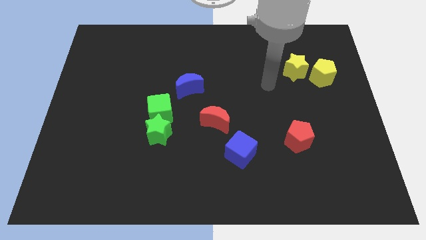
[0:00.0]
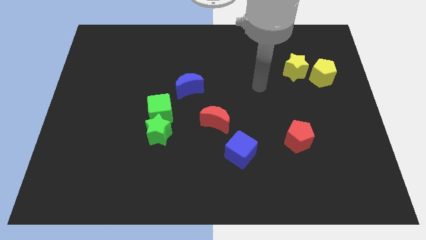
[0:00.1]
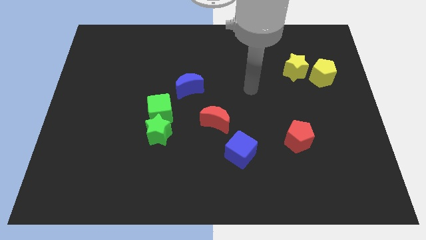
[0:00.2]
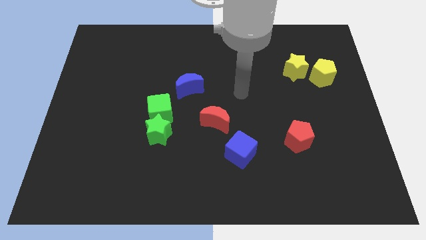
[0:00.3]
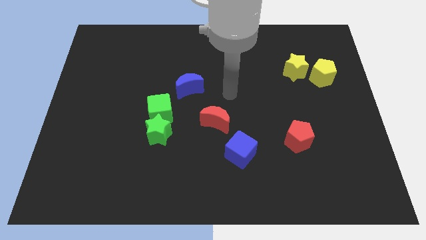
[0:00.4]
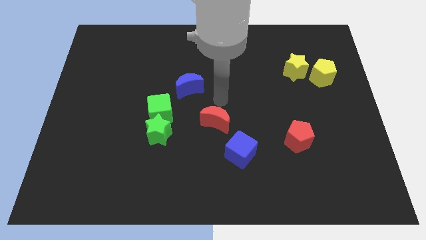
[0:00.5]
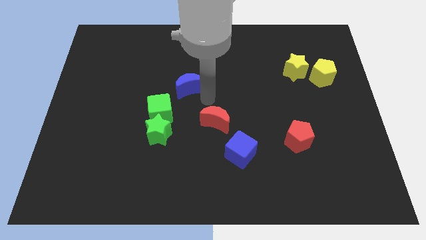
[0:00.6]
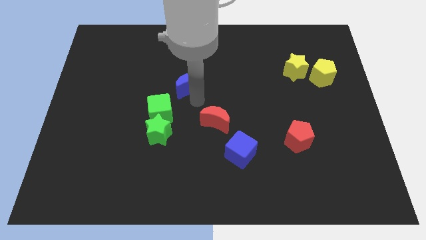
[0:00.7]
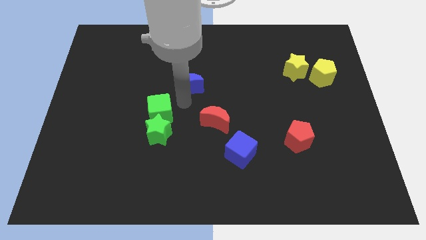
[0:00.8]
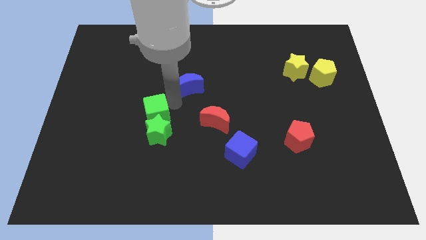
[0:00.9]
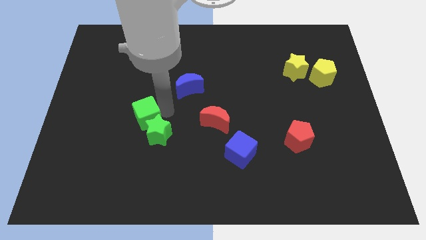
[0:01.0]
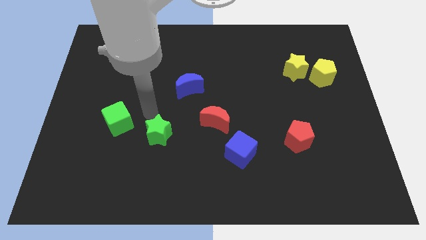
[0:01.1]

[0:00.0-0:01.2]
move the green star away from the green cube

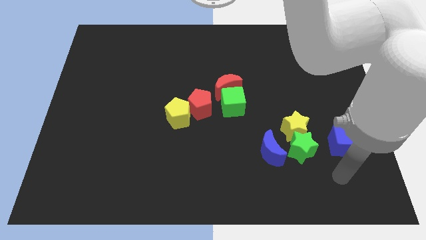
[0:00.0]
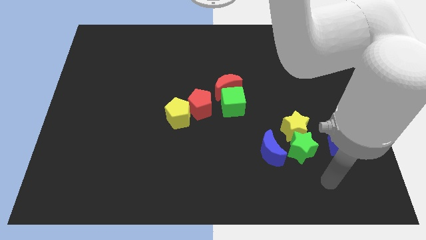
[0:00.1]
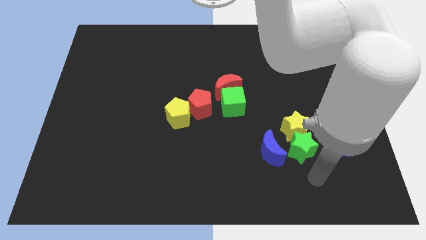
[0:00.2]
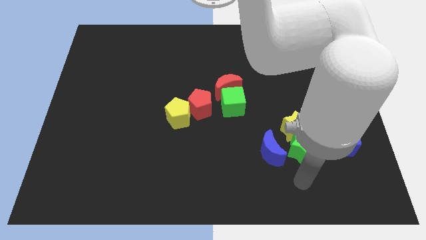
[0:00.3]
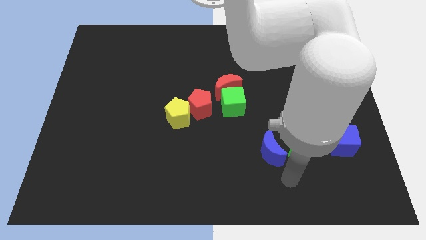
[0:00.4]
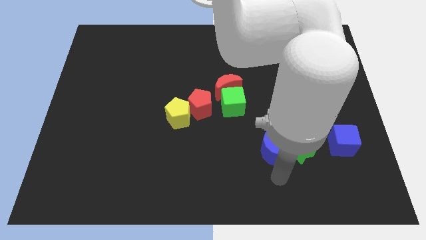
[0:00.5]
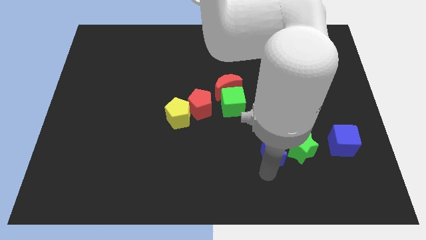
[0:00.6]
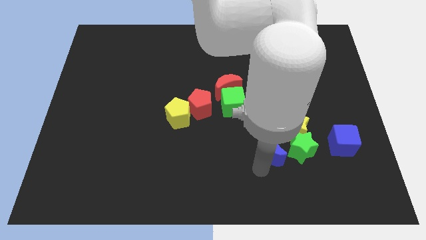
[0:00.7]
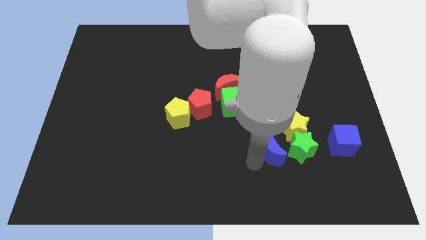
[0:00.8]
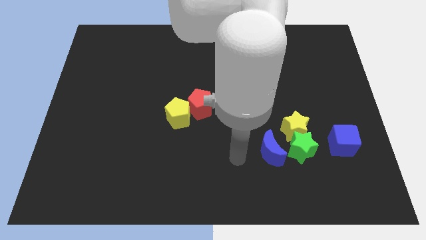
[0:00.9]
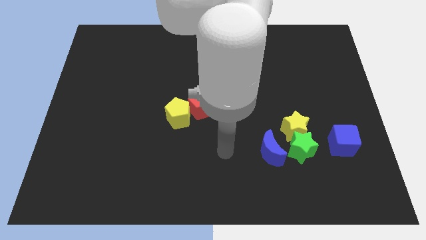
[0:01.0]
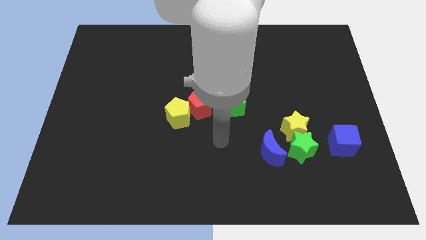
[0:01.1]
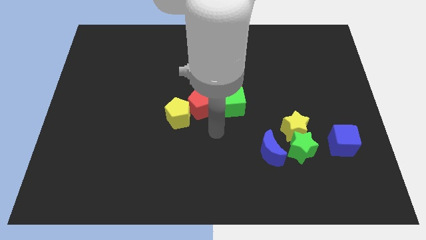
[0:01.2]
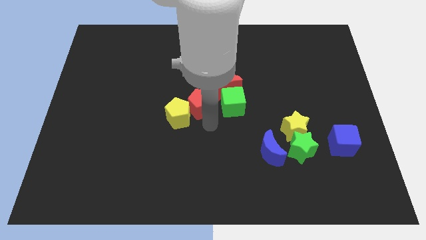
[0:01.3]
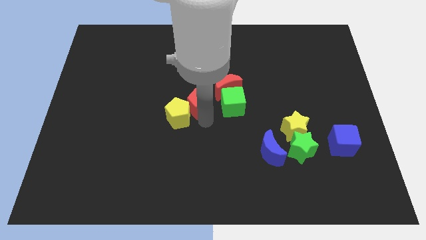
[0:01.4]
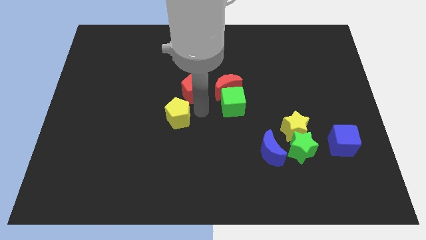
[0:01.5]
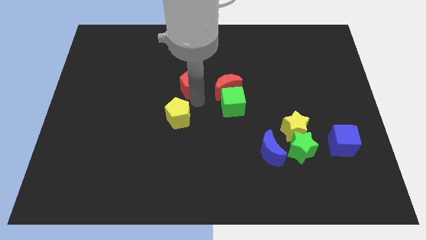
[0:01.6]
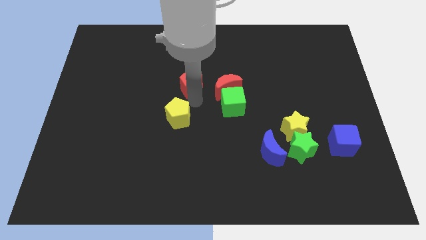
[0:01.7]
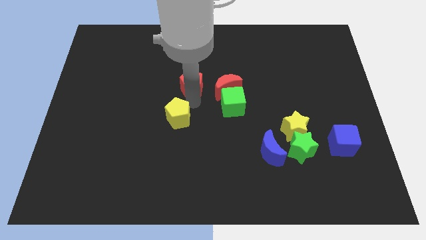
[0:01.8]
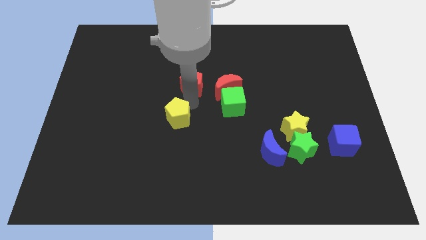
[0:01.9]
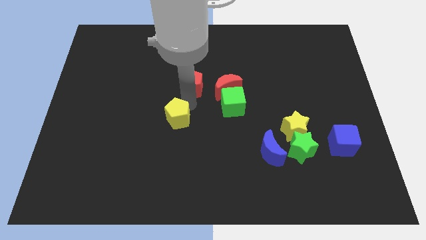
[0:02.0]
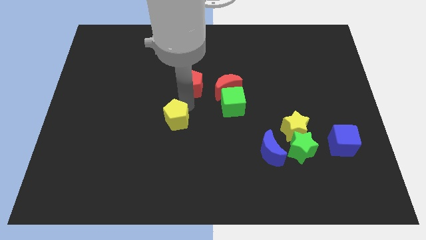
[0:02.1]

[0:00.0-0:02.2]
separate the yellow pentagon from the red pentagon

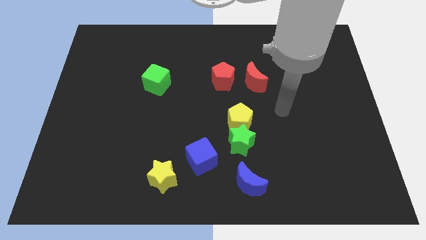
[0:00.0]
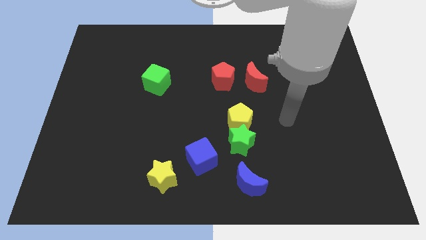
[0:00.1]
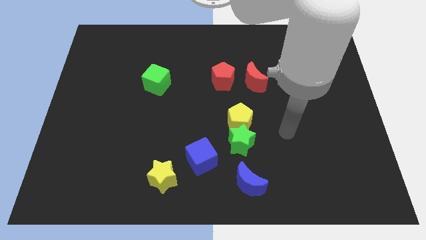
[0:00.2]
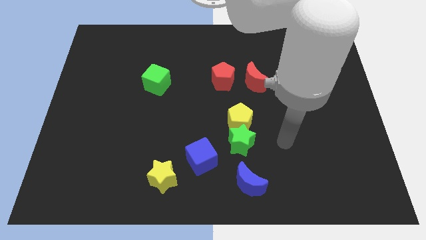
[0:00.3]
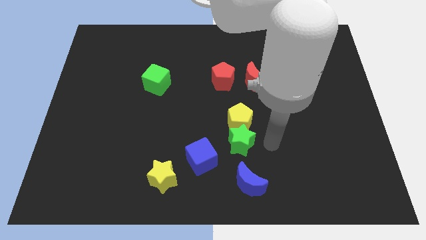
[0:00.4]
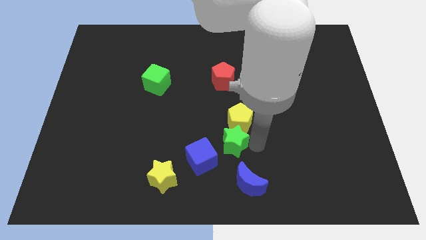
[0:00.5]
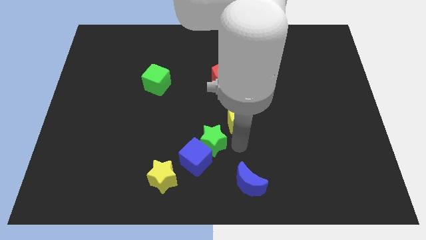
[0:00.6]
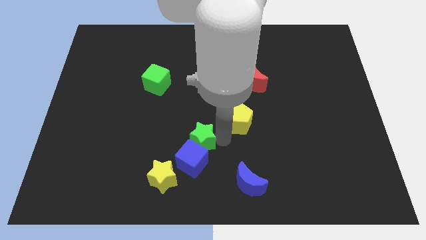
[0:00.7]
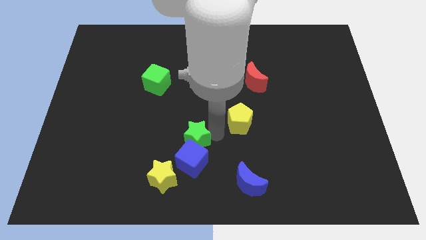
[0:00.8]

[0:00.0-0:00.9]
move the yellow pentagon away from the green star

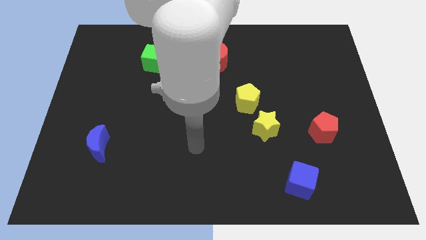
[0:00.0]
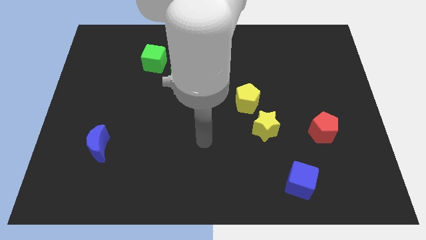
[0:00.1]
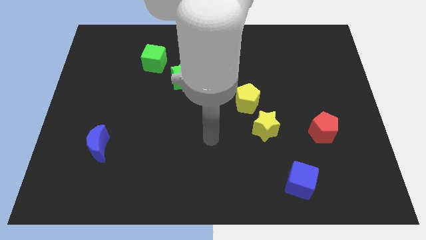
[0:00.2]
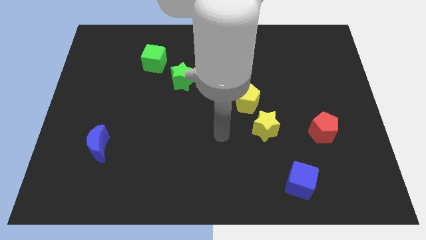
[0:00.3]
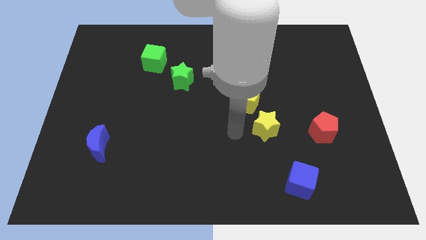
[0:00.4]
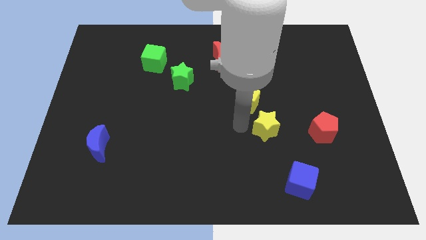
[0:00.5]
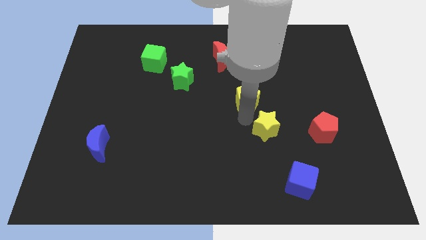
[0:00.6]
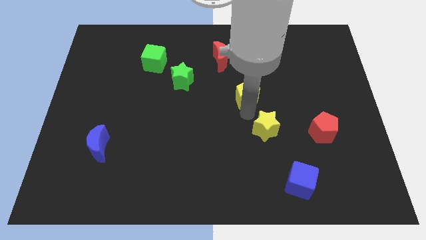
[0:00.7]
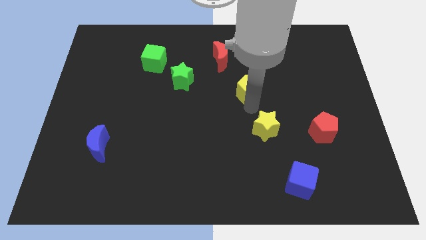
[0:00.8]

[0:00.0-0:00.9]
pull the yellow star apart from the yellow pentagon

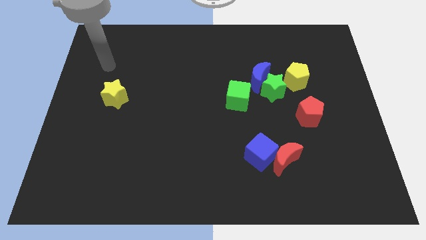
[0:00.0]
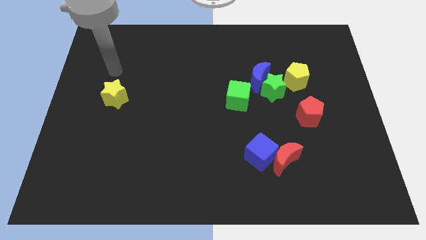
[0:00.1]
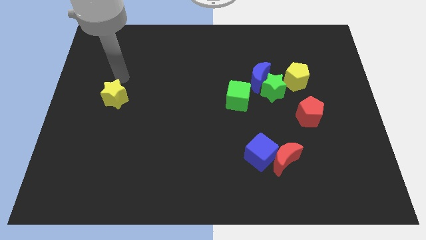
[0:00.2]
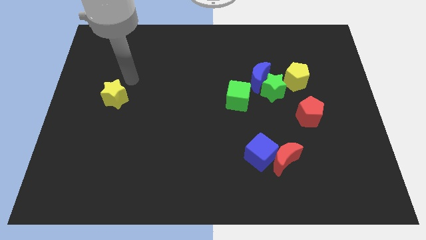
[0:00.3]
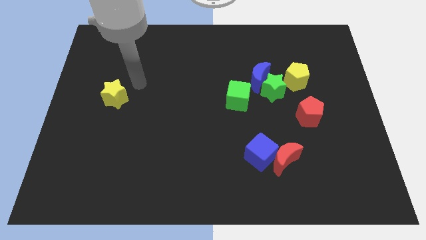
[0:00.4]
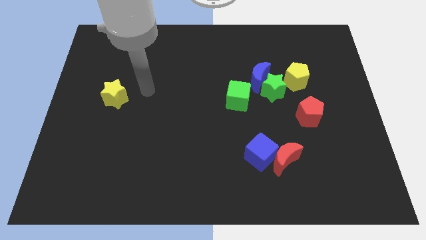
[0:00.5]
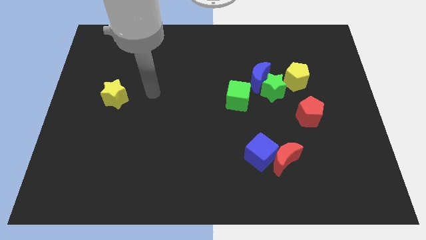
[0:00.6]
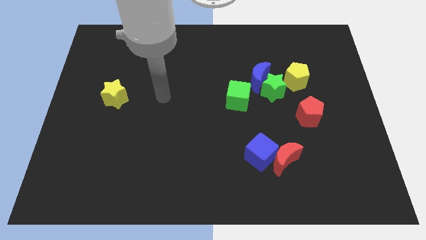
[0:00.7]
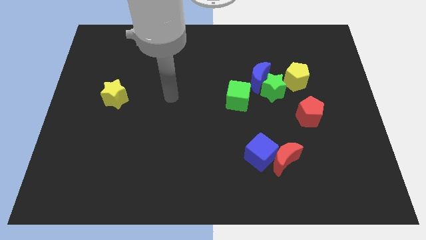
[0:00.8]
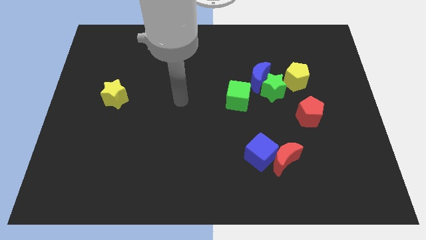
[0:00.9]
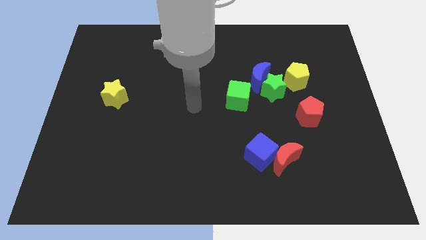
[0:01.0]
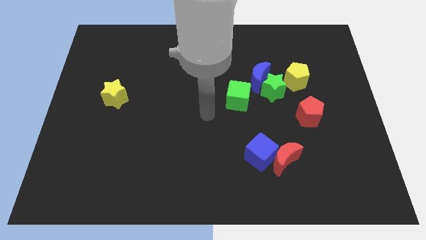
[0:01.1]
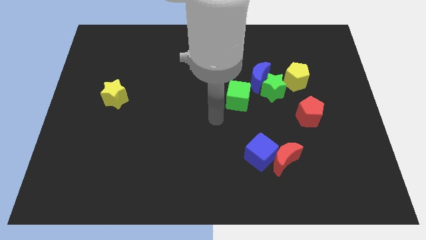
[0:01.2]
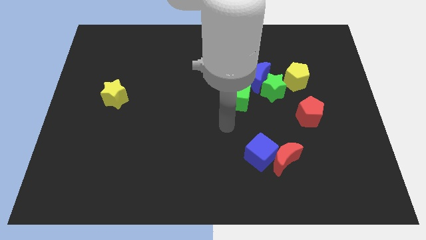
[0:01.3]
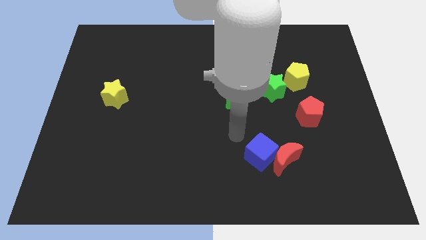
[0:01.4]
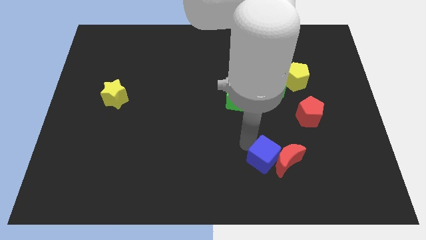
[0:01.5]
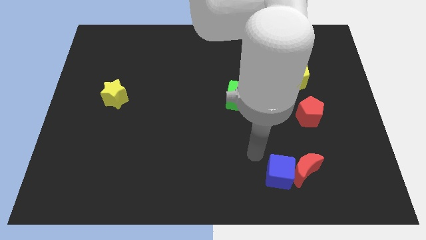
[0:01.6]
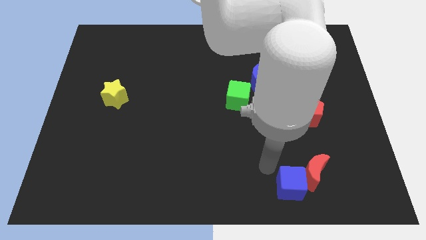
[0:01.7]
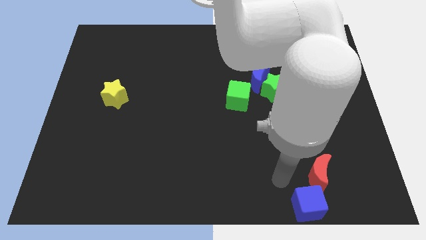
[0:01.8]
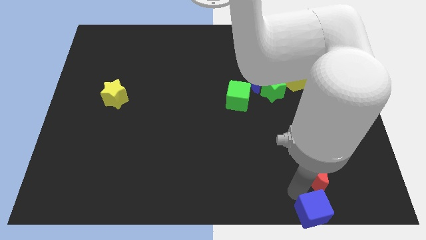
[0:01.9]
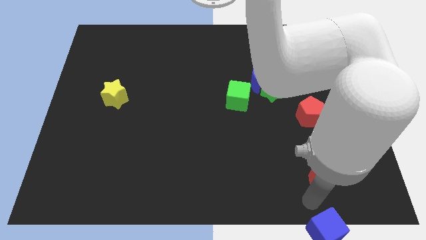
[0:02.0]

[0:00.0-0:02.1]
move the red moon away from the blue cube

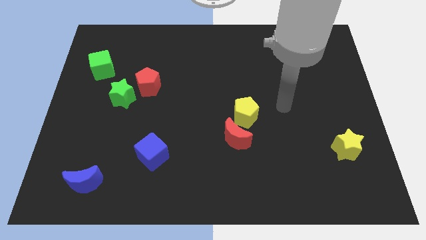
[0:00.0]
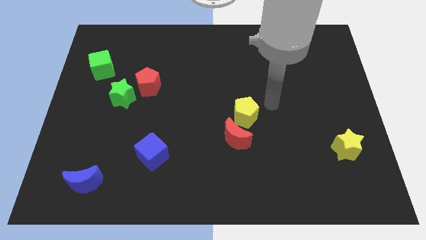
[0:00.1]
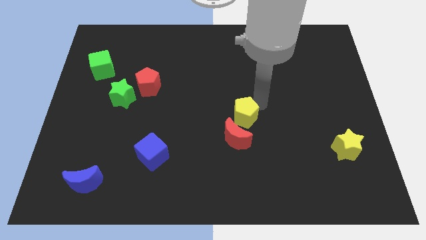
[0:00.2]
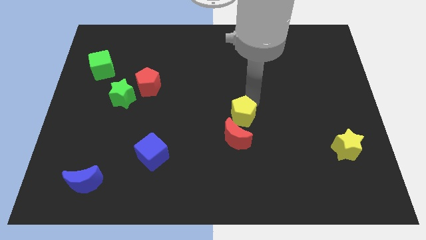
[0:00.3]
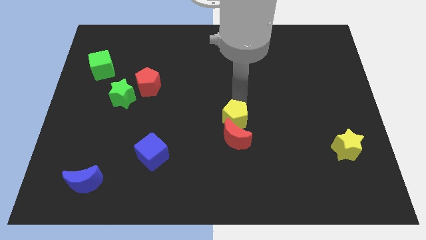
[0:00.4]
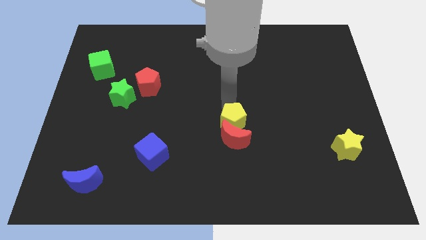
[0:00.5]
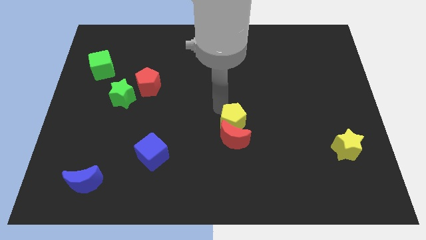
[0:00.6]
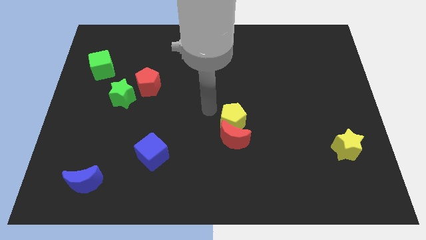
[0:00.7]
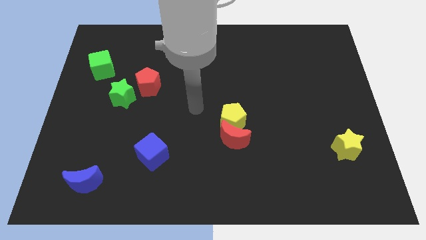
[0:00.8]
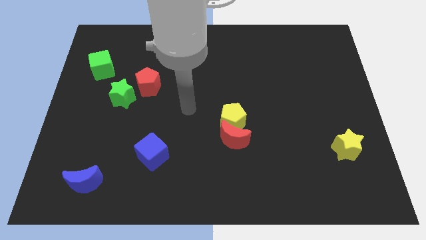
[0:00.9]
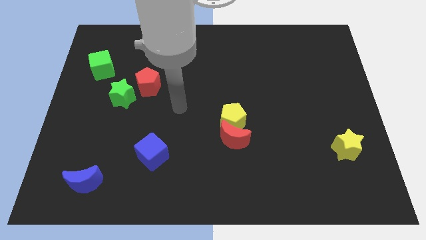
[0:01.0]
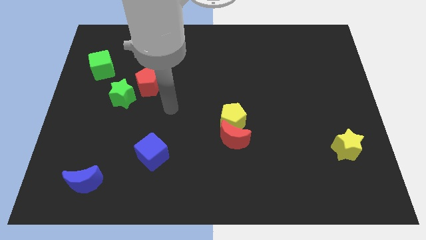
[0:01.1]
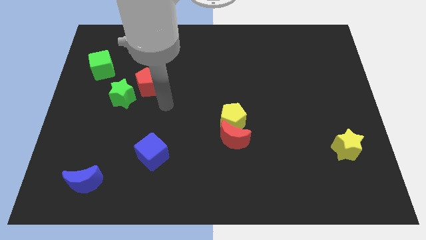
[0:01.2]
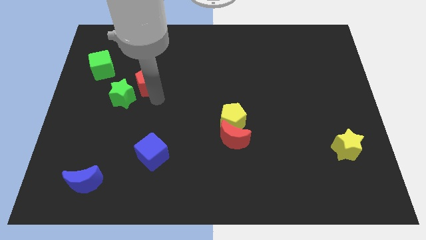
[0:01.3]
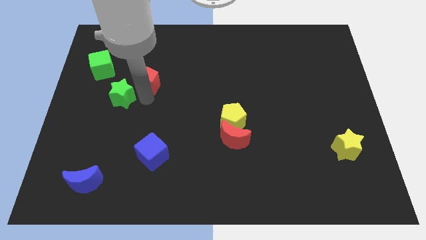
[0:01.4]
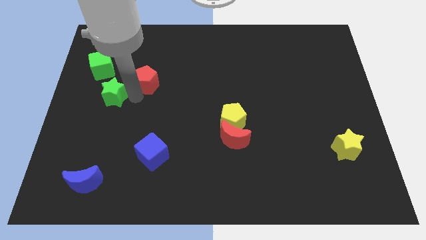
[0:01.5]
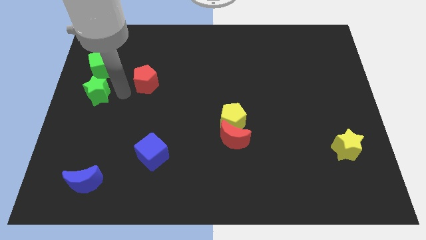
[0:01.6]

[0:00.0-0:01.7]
separate the red pentagon from the green star

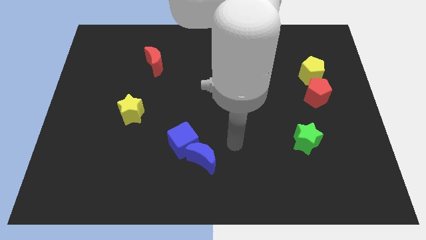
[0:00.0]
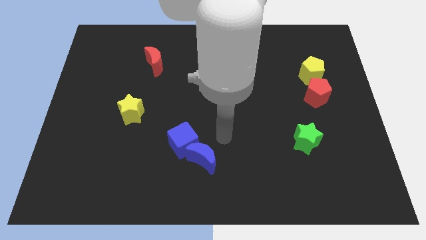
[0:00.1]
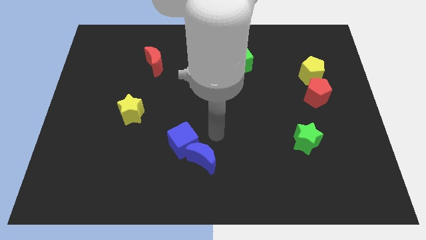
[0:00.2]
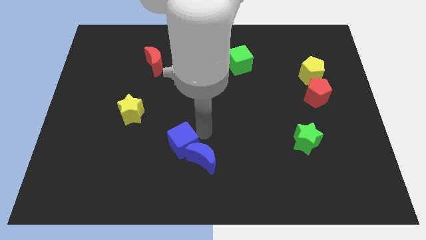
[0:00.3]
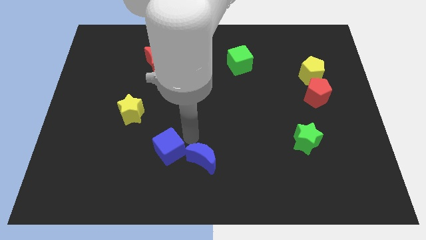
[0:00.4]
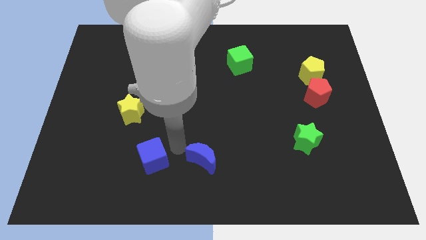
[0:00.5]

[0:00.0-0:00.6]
pull the blue moon apart from the blue cube
